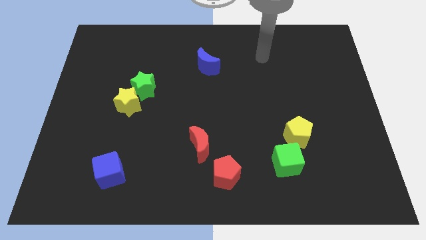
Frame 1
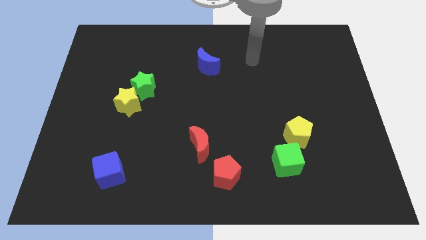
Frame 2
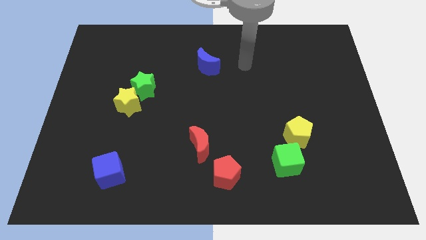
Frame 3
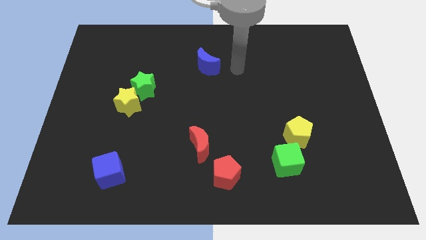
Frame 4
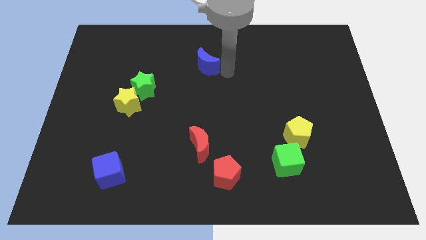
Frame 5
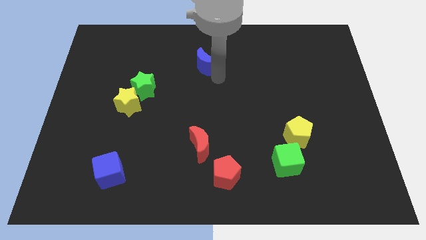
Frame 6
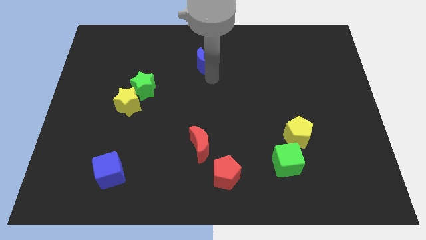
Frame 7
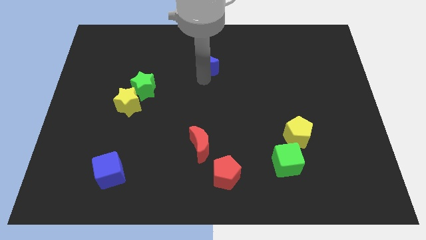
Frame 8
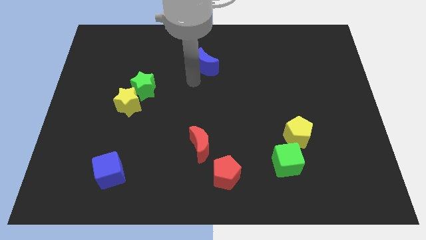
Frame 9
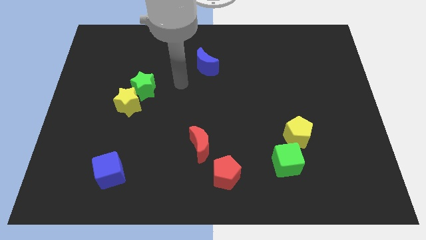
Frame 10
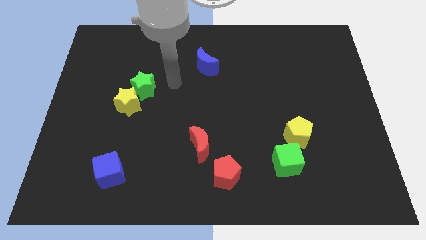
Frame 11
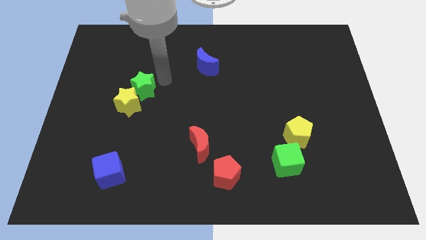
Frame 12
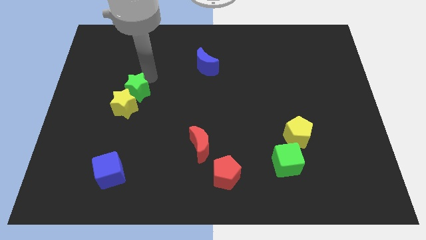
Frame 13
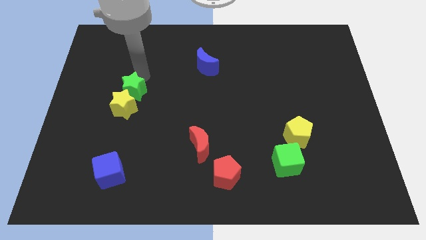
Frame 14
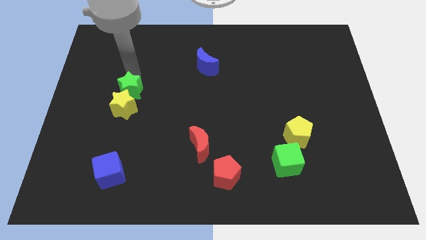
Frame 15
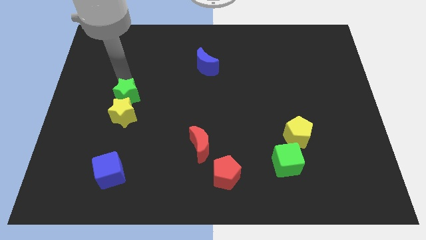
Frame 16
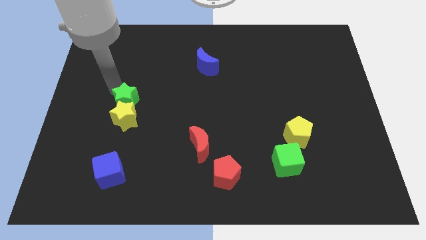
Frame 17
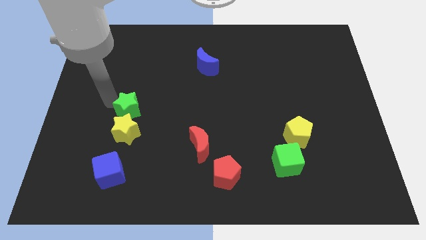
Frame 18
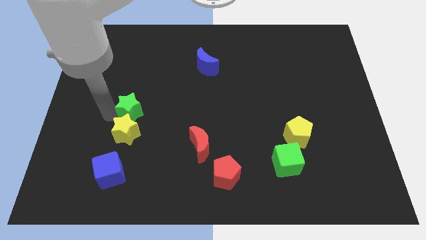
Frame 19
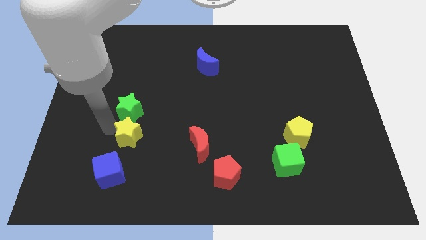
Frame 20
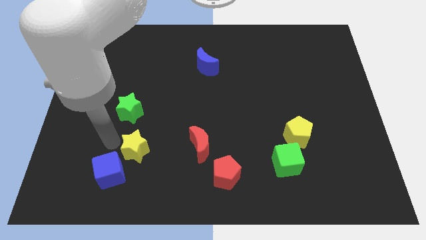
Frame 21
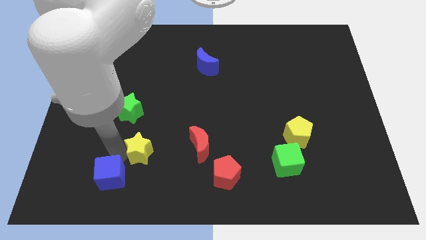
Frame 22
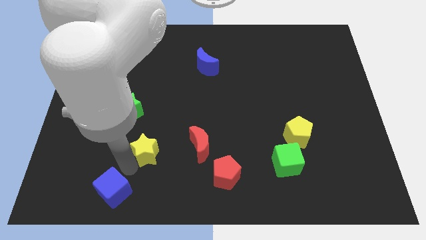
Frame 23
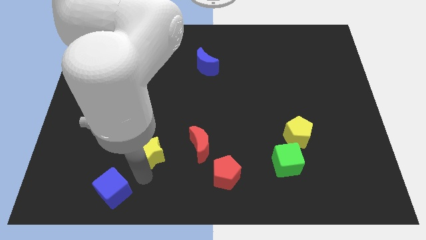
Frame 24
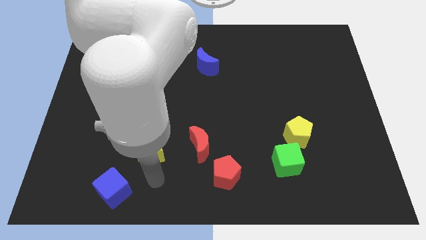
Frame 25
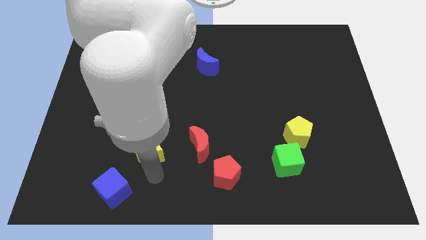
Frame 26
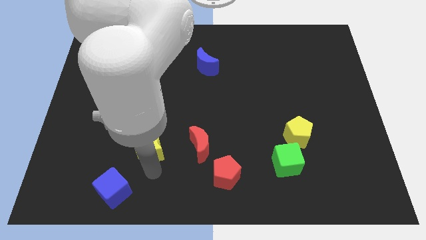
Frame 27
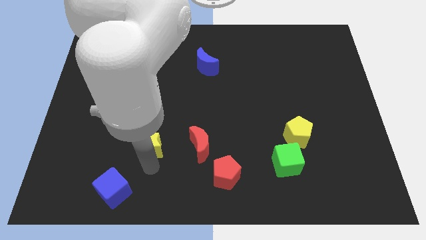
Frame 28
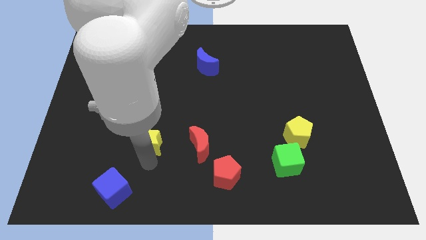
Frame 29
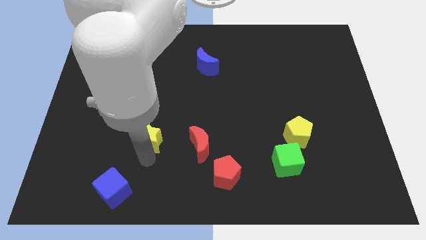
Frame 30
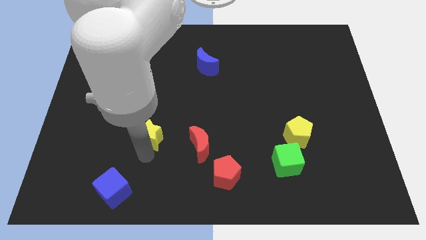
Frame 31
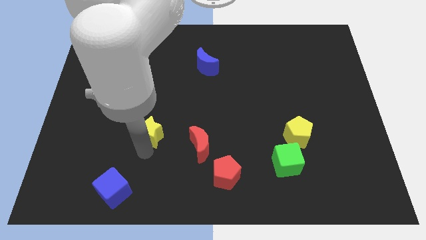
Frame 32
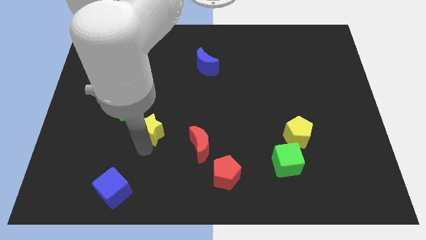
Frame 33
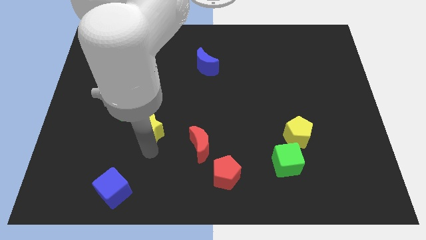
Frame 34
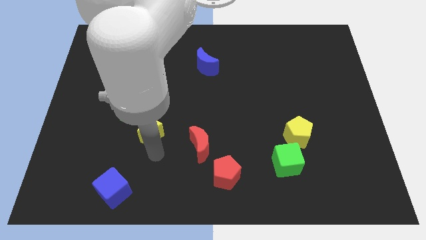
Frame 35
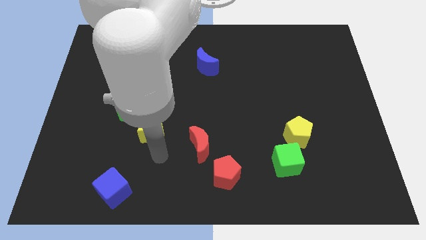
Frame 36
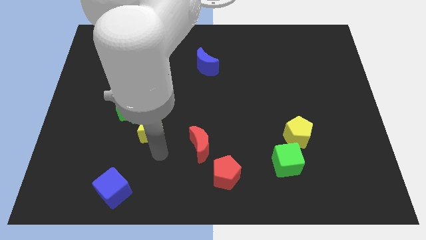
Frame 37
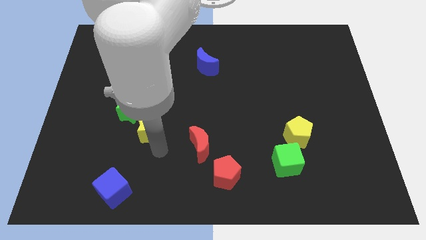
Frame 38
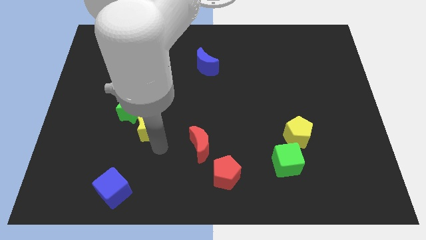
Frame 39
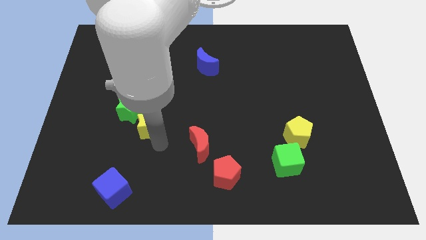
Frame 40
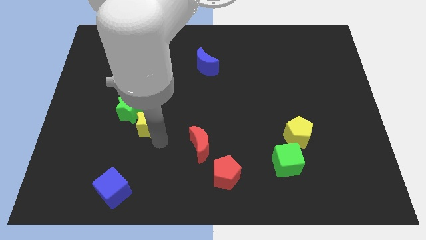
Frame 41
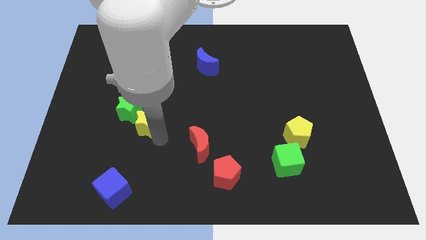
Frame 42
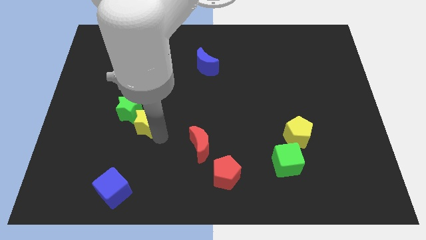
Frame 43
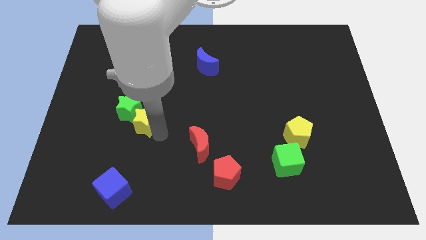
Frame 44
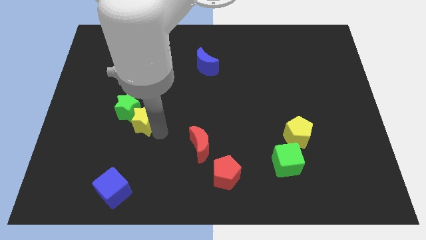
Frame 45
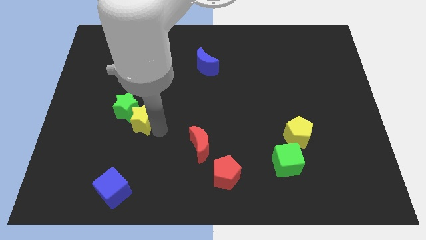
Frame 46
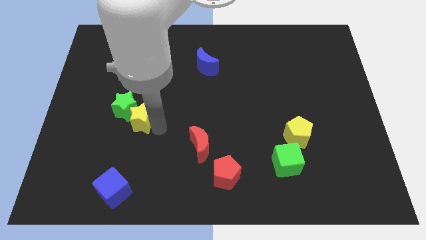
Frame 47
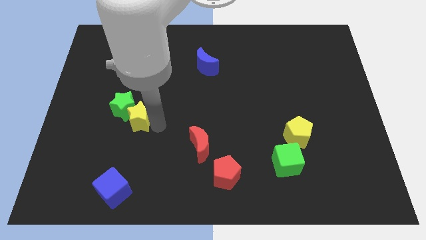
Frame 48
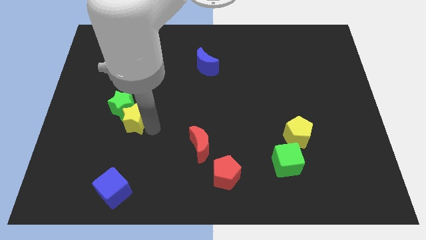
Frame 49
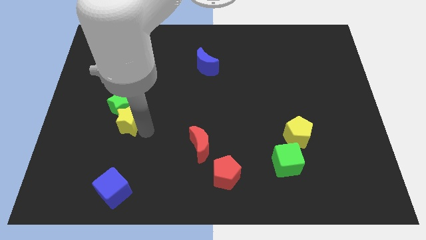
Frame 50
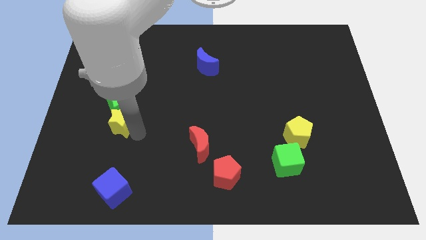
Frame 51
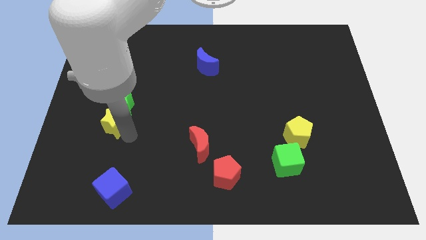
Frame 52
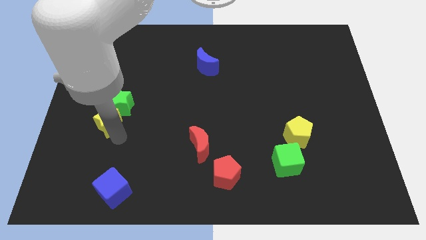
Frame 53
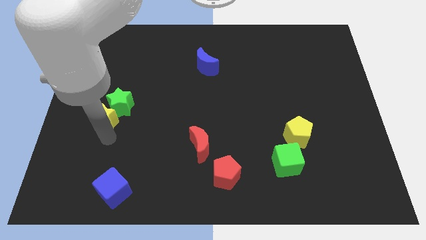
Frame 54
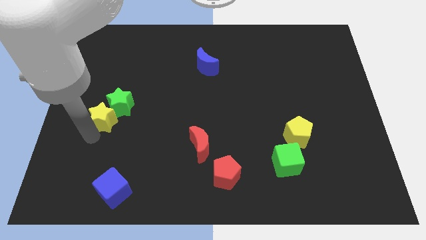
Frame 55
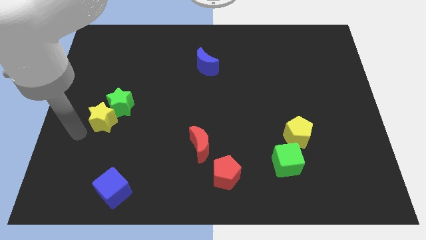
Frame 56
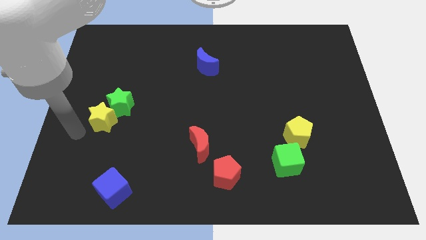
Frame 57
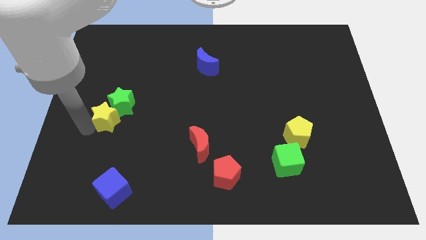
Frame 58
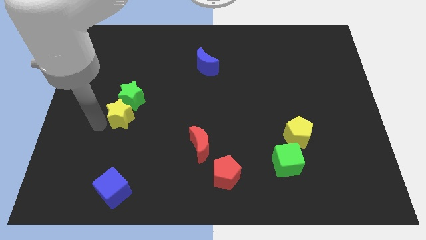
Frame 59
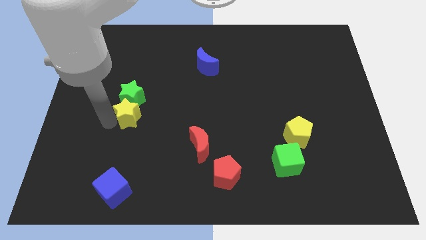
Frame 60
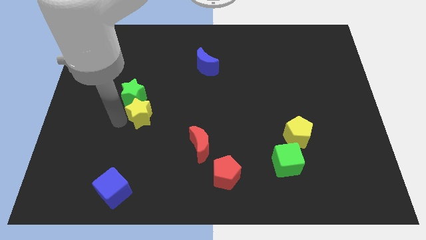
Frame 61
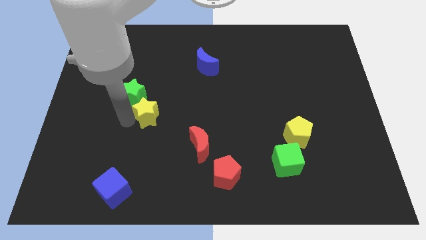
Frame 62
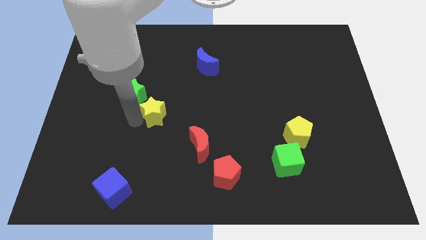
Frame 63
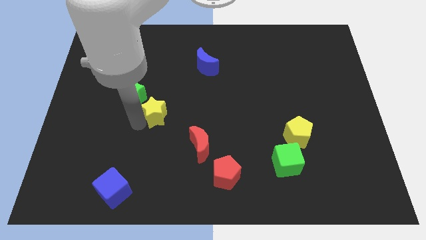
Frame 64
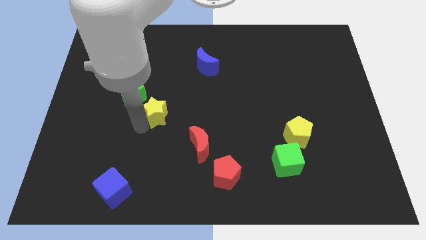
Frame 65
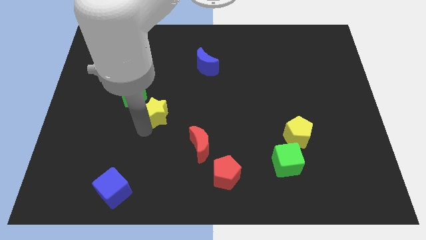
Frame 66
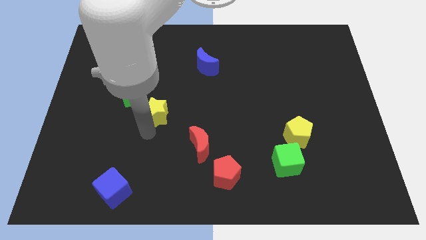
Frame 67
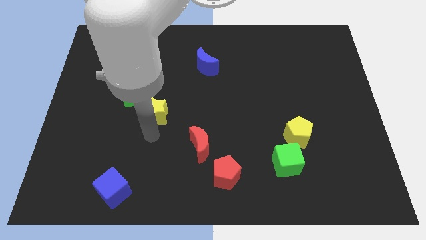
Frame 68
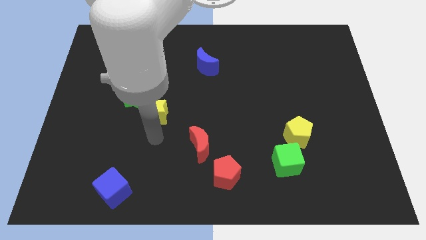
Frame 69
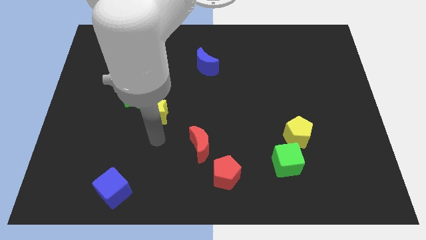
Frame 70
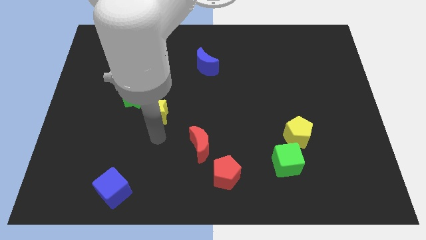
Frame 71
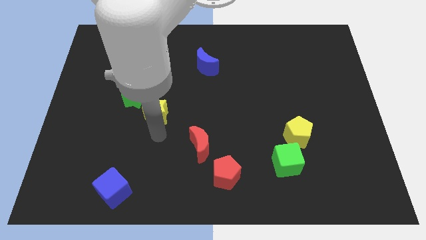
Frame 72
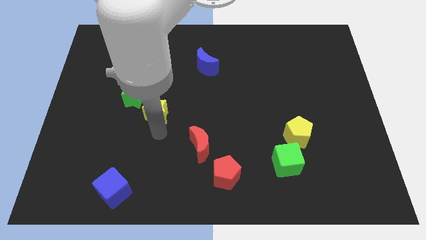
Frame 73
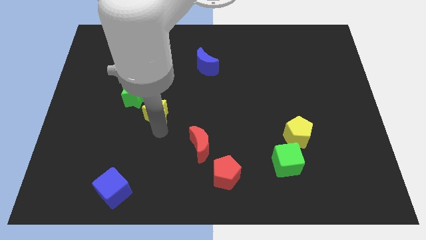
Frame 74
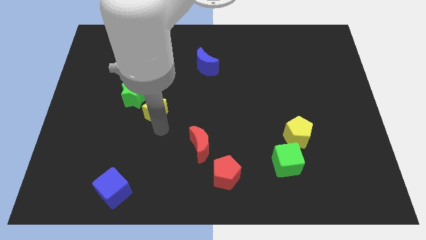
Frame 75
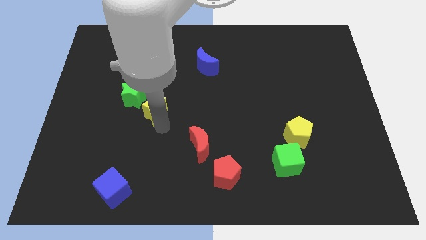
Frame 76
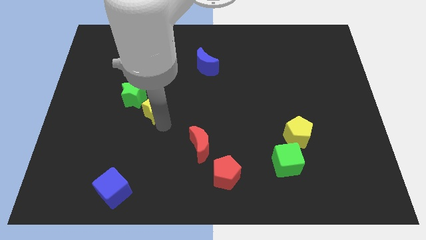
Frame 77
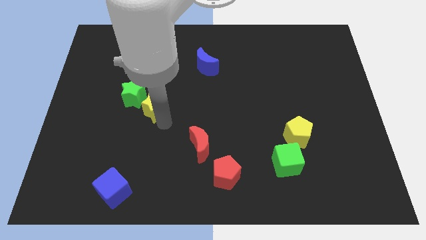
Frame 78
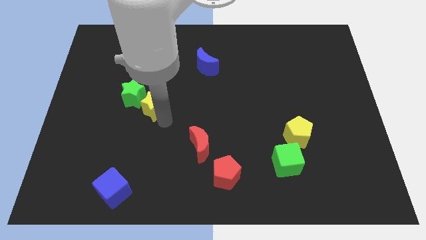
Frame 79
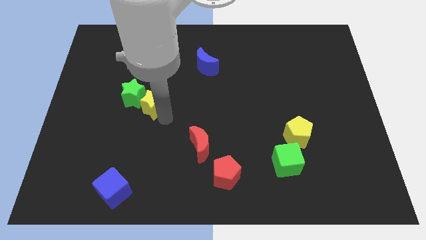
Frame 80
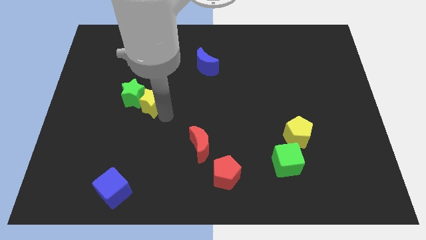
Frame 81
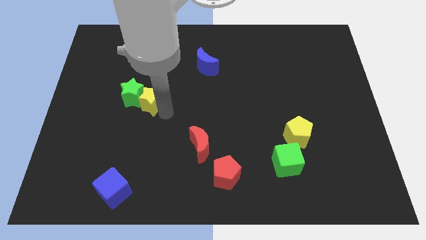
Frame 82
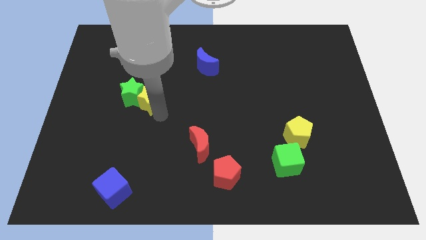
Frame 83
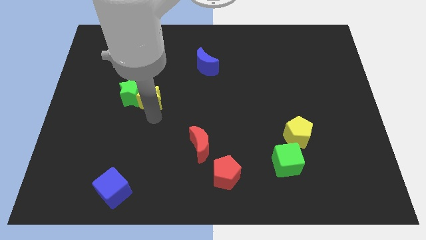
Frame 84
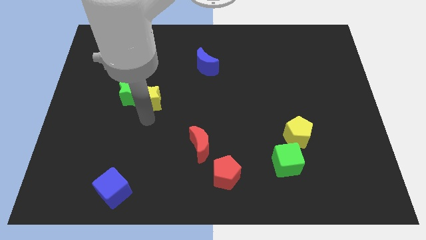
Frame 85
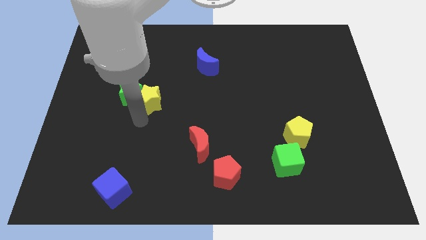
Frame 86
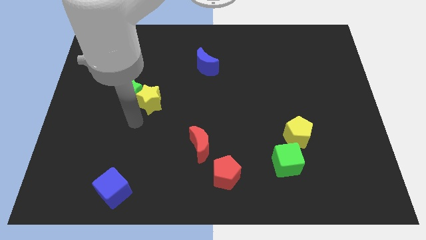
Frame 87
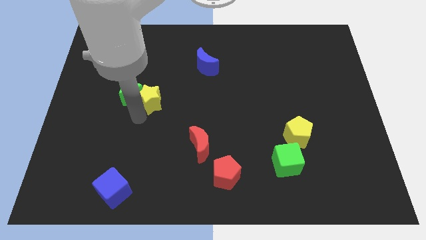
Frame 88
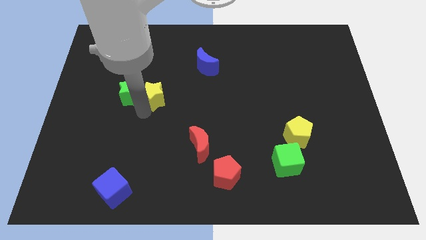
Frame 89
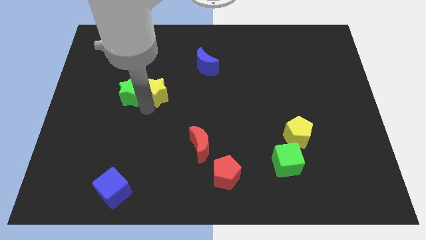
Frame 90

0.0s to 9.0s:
move the yellow star upwards and to the right somewhat
